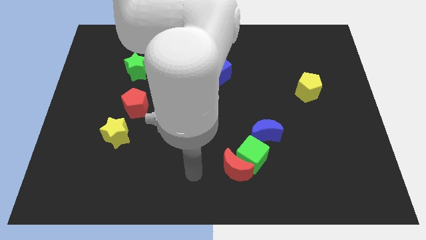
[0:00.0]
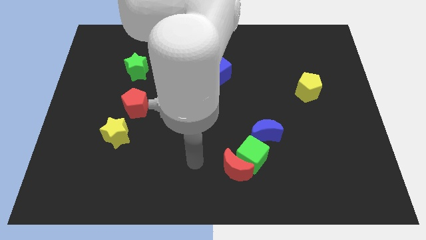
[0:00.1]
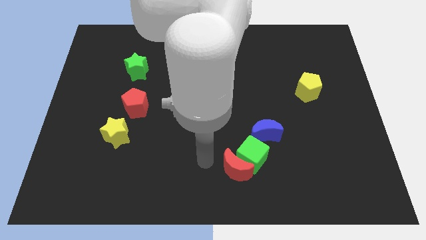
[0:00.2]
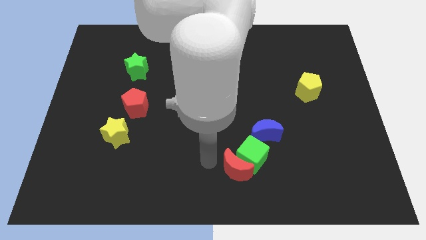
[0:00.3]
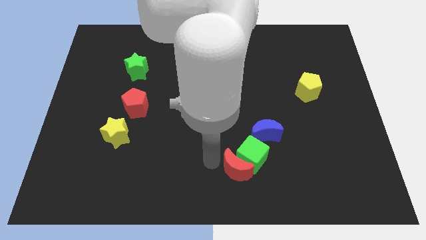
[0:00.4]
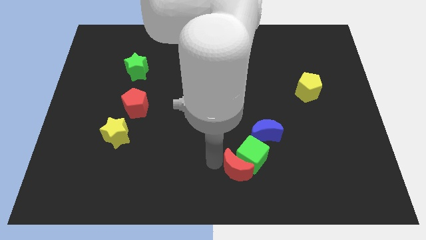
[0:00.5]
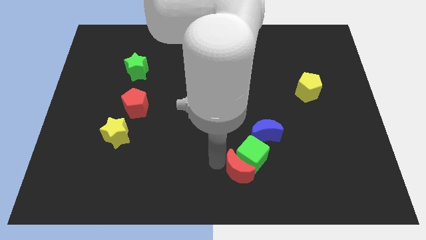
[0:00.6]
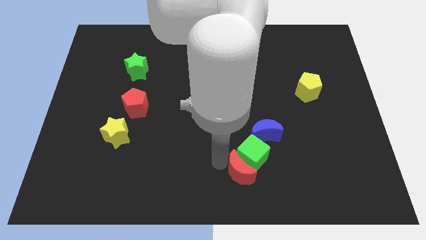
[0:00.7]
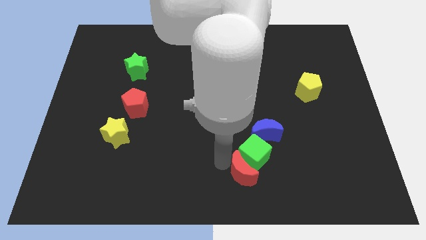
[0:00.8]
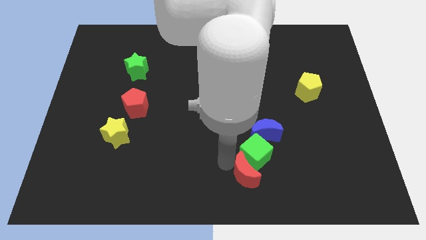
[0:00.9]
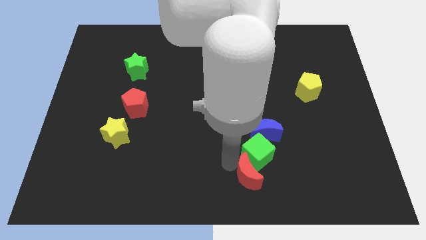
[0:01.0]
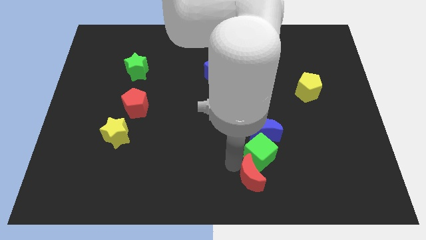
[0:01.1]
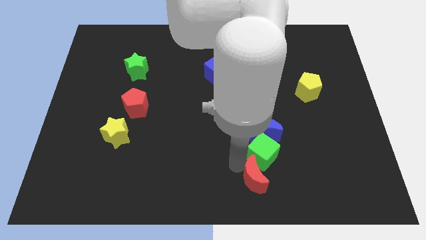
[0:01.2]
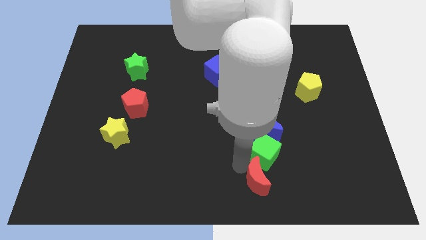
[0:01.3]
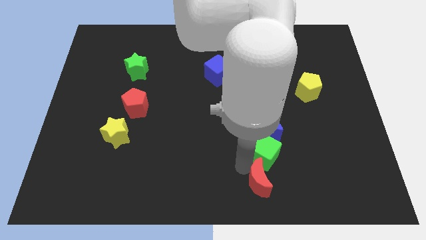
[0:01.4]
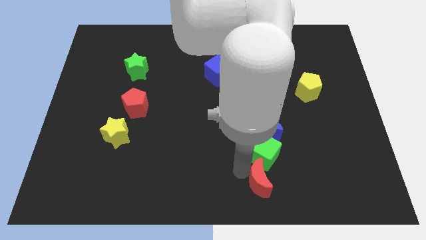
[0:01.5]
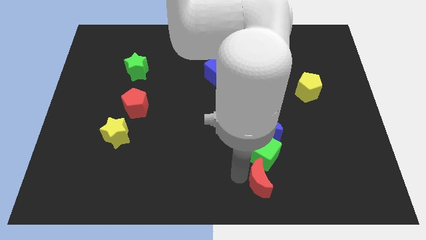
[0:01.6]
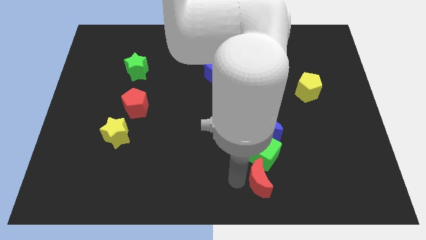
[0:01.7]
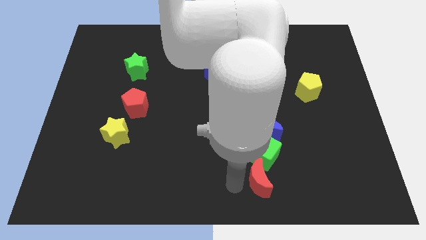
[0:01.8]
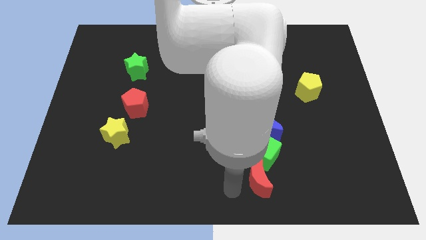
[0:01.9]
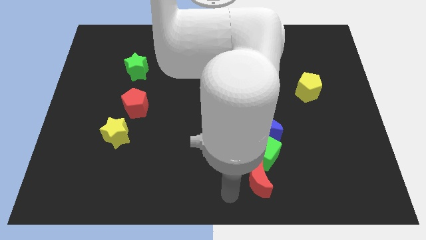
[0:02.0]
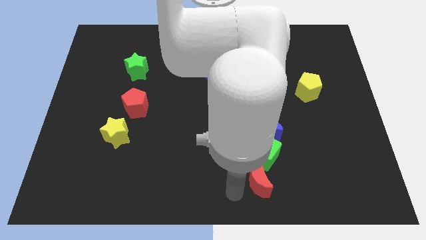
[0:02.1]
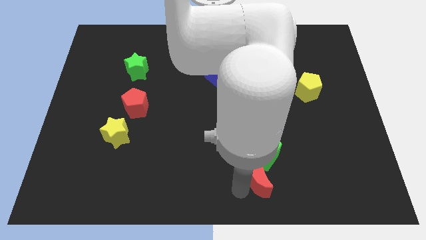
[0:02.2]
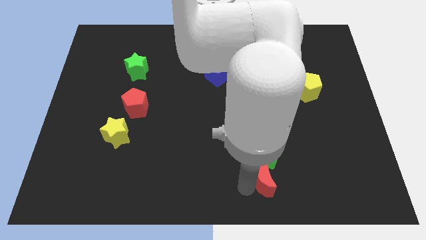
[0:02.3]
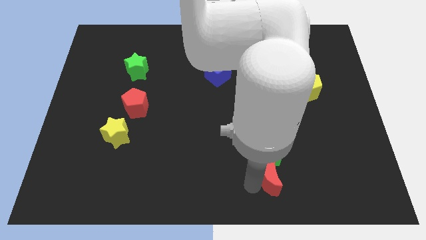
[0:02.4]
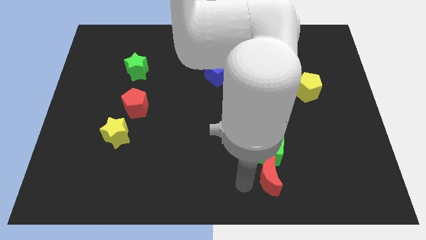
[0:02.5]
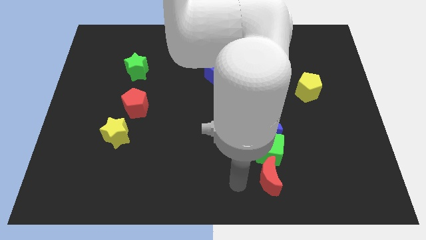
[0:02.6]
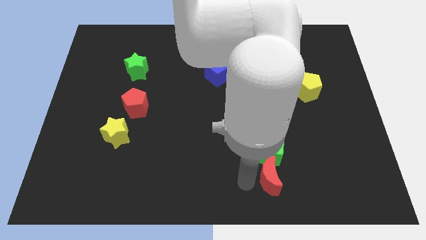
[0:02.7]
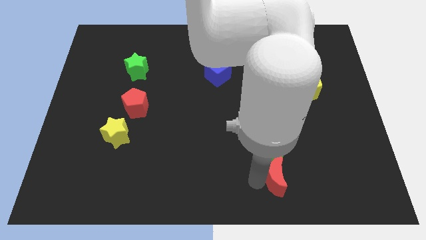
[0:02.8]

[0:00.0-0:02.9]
slide the red moon a little bit to the right

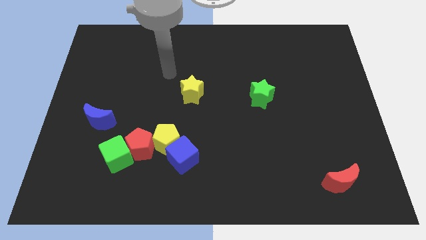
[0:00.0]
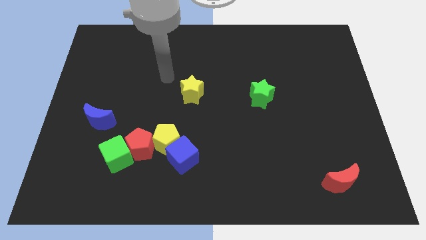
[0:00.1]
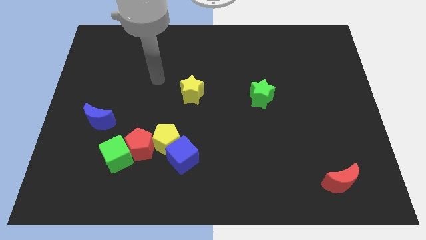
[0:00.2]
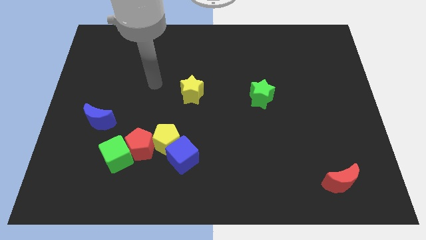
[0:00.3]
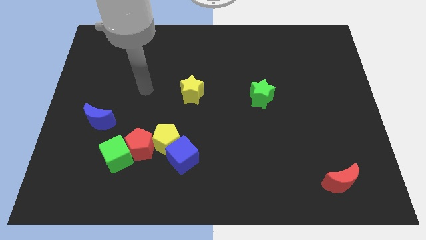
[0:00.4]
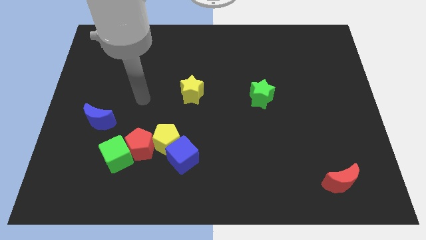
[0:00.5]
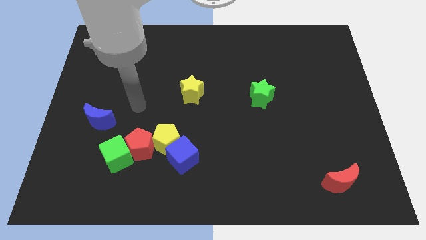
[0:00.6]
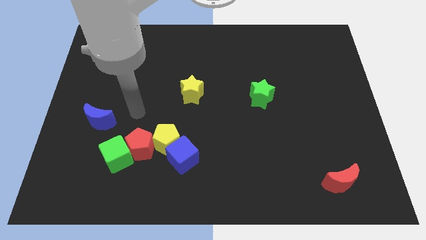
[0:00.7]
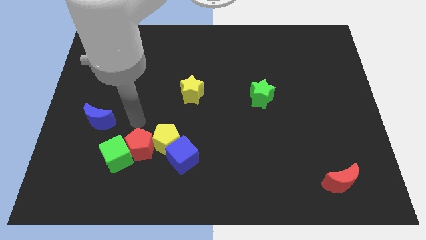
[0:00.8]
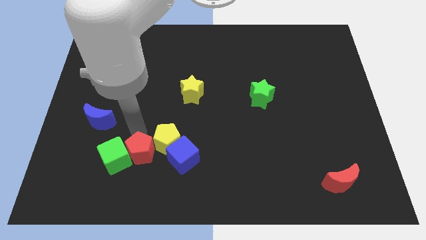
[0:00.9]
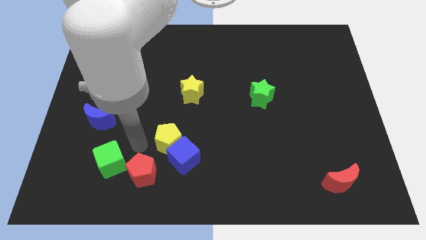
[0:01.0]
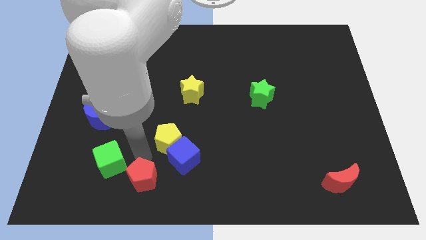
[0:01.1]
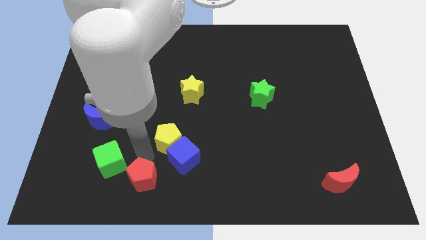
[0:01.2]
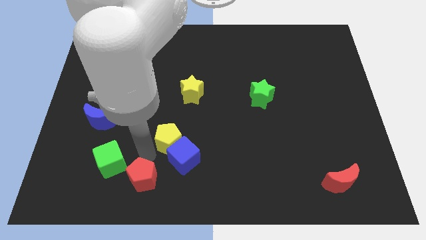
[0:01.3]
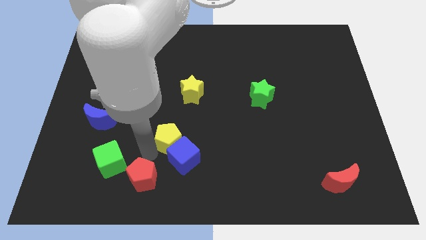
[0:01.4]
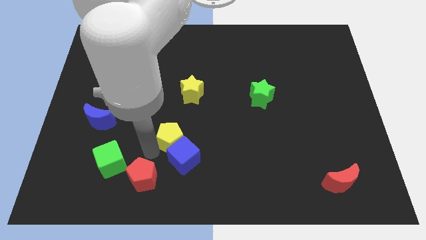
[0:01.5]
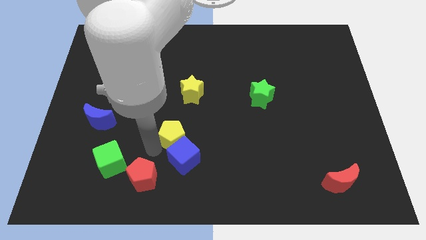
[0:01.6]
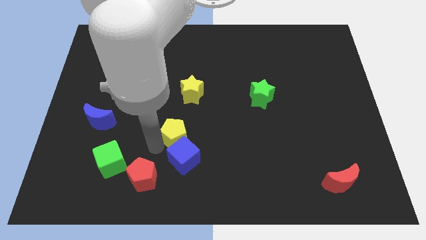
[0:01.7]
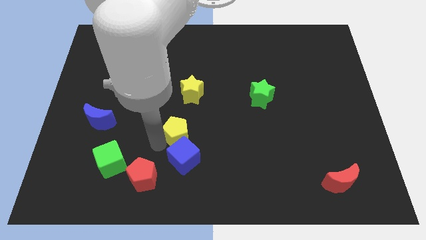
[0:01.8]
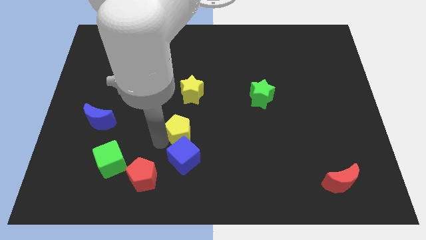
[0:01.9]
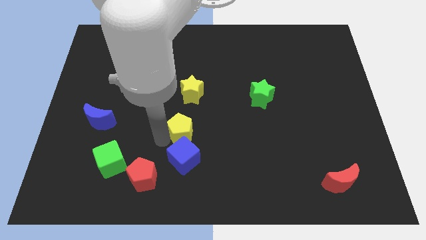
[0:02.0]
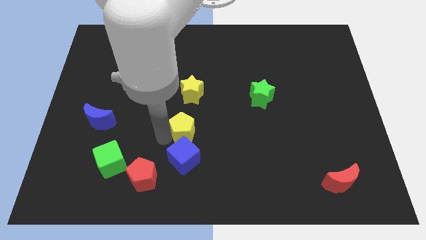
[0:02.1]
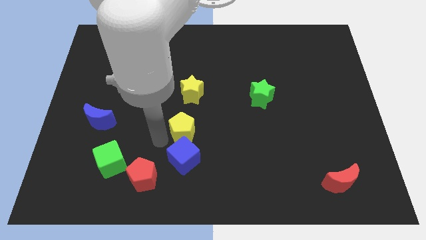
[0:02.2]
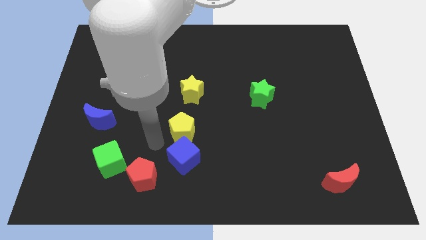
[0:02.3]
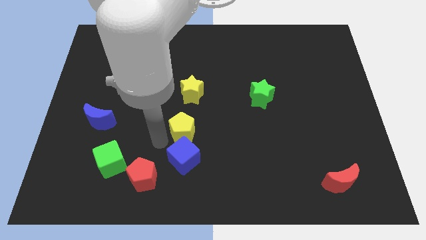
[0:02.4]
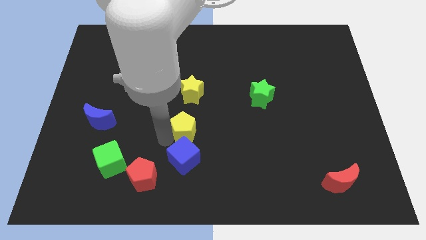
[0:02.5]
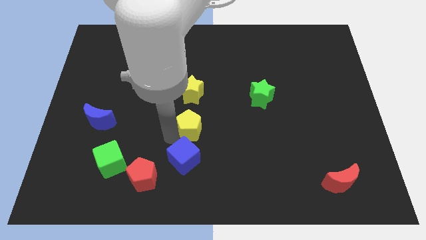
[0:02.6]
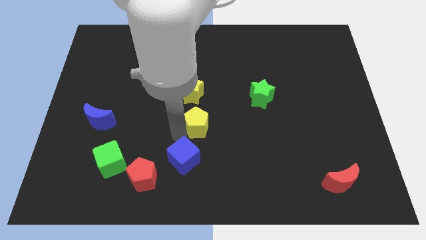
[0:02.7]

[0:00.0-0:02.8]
slide the yellow pentagon slightly up and to the right

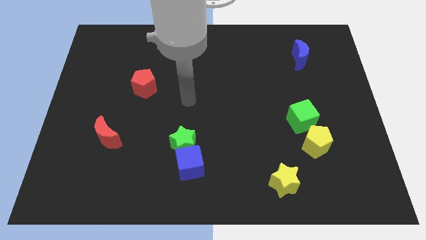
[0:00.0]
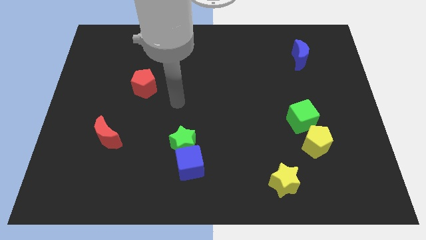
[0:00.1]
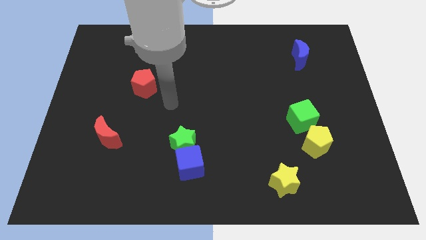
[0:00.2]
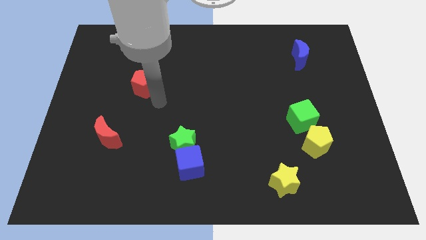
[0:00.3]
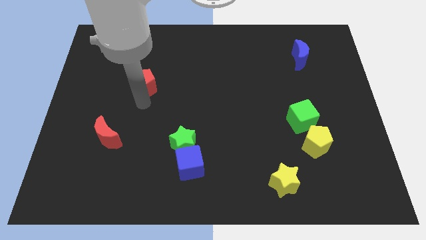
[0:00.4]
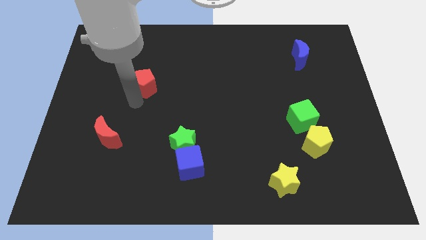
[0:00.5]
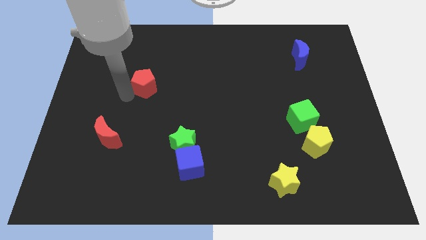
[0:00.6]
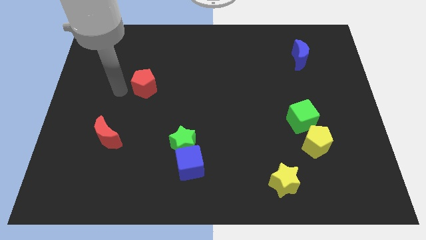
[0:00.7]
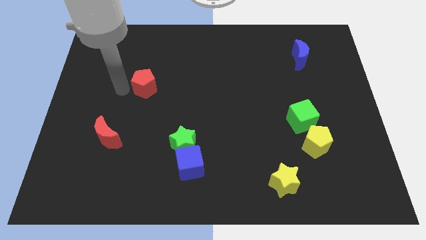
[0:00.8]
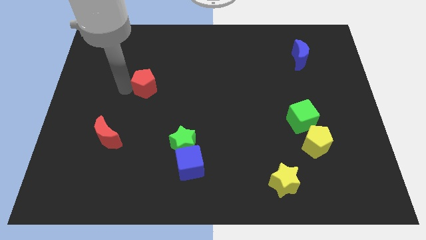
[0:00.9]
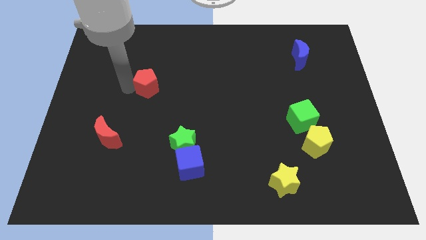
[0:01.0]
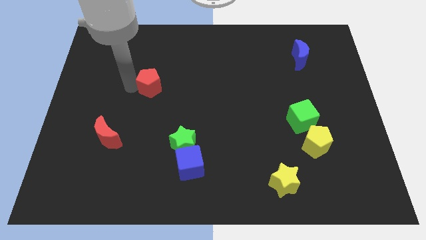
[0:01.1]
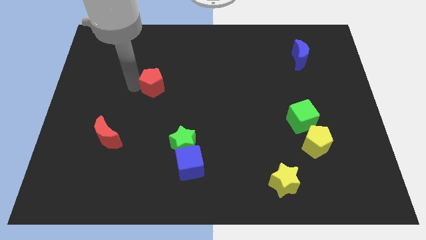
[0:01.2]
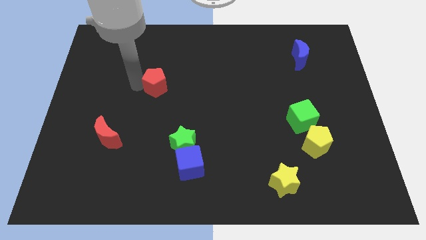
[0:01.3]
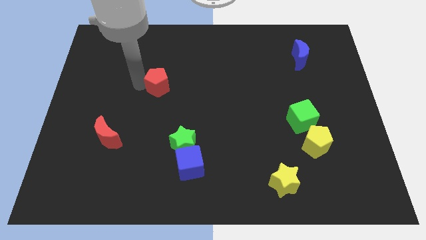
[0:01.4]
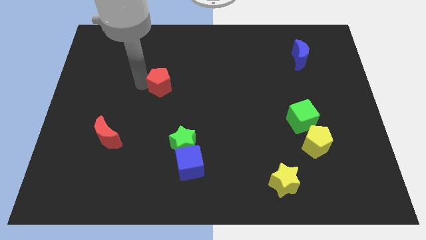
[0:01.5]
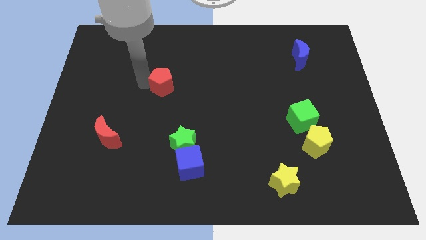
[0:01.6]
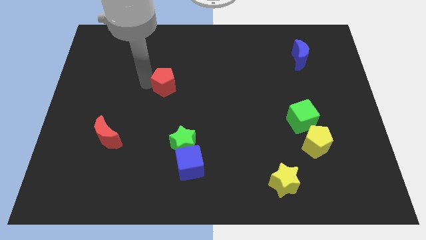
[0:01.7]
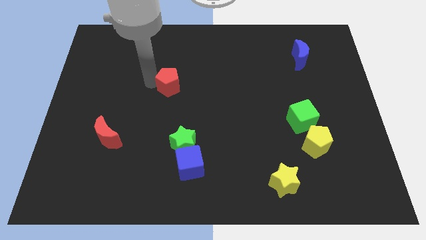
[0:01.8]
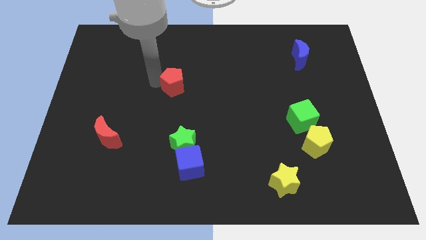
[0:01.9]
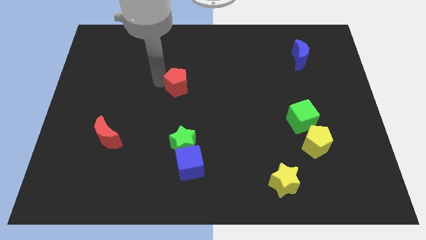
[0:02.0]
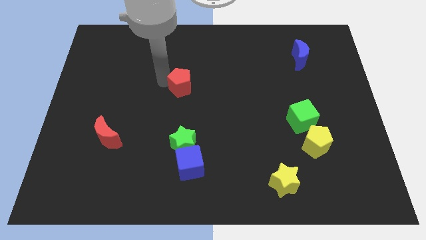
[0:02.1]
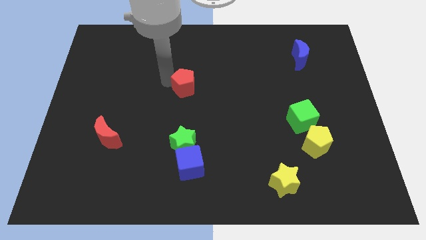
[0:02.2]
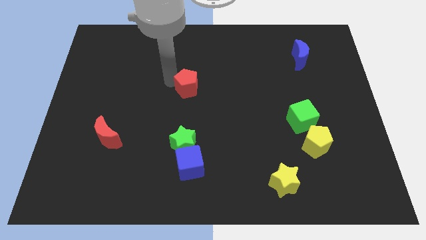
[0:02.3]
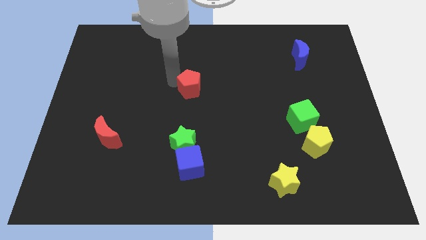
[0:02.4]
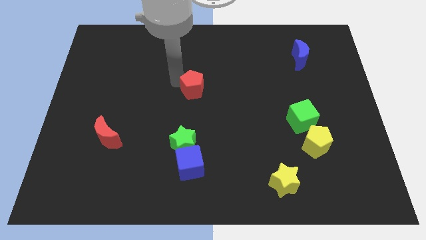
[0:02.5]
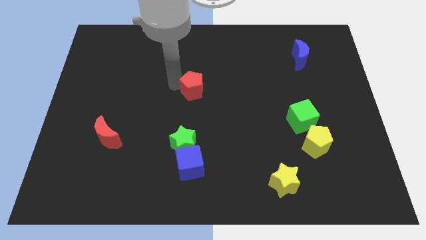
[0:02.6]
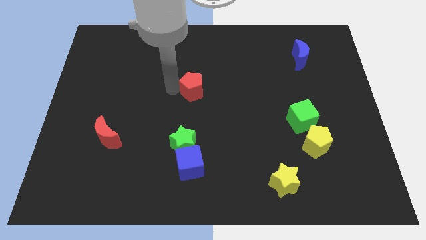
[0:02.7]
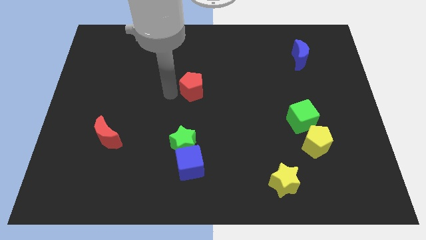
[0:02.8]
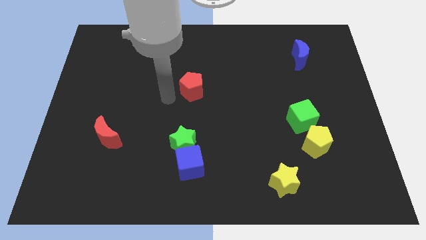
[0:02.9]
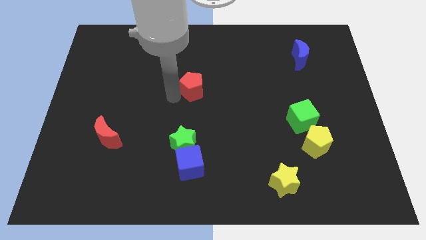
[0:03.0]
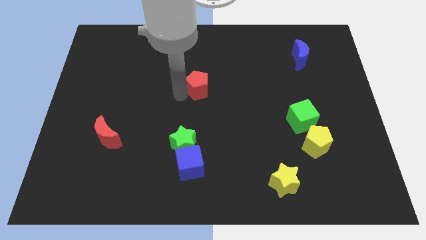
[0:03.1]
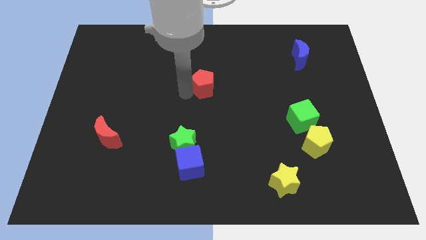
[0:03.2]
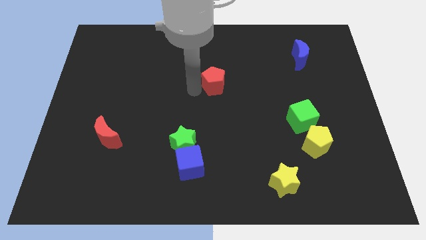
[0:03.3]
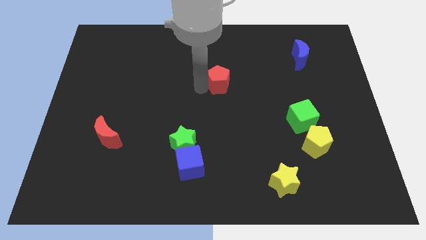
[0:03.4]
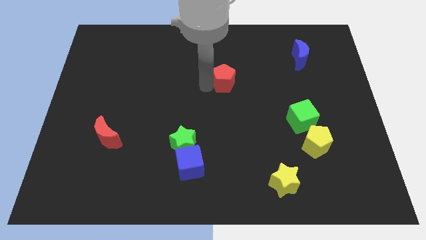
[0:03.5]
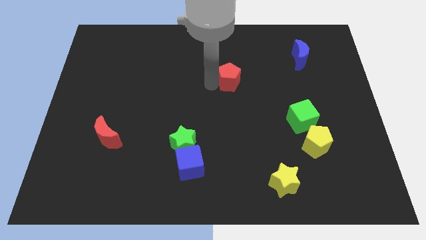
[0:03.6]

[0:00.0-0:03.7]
slide the red pentagon right
